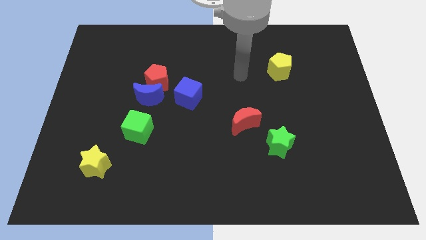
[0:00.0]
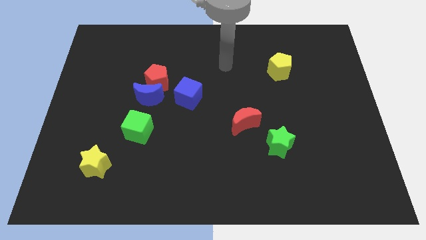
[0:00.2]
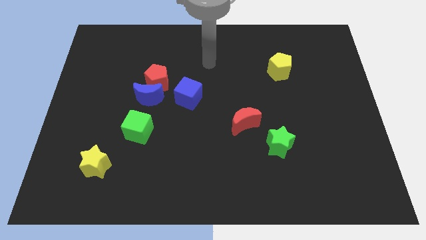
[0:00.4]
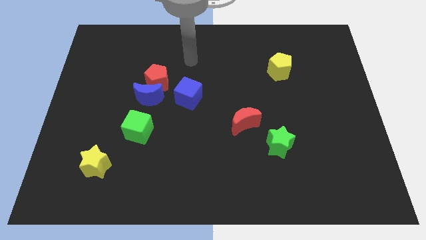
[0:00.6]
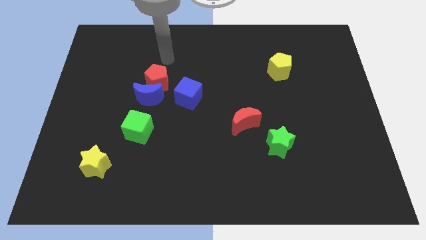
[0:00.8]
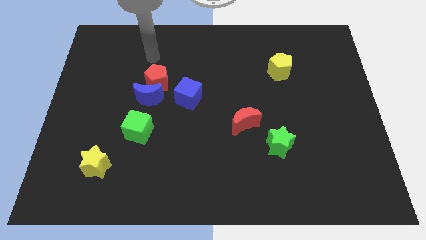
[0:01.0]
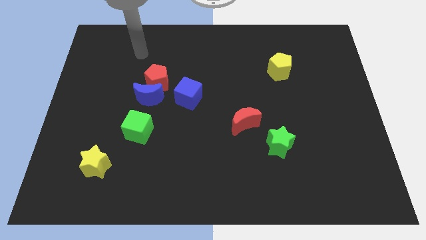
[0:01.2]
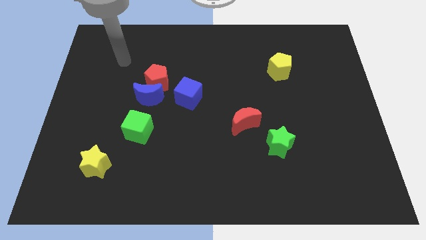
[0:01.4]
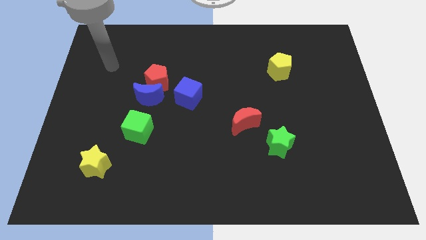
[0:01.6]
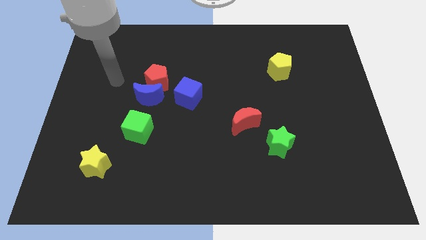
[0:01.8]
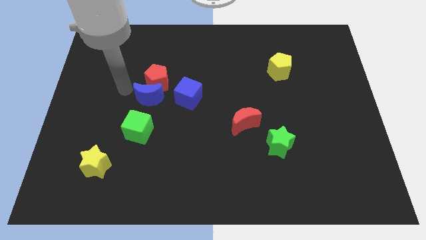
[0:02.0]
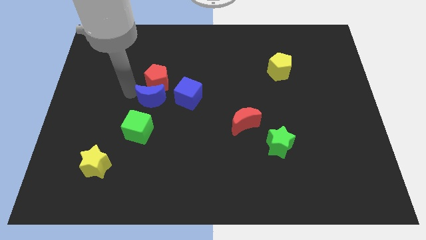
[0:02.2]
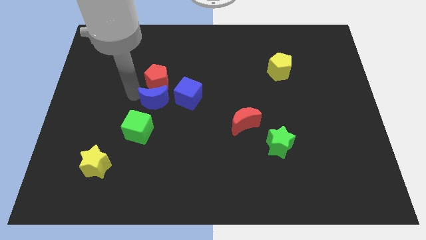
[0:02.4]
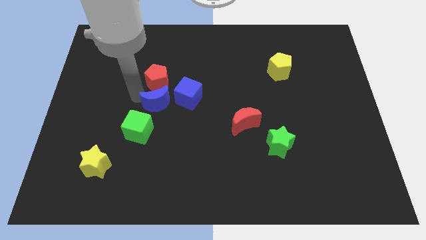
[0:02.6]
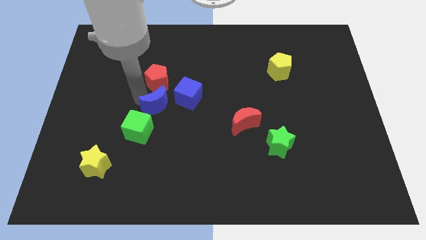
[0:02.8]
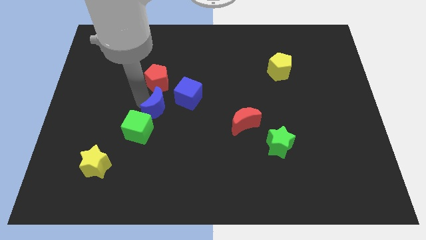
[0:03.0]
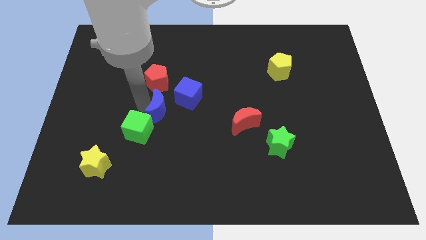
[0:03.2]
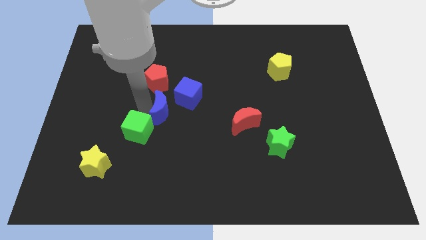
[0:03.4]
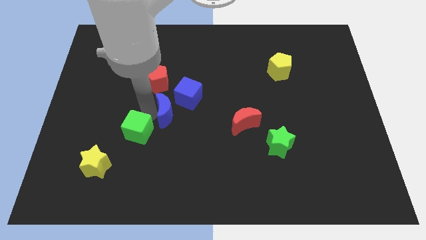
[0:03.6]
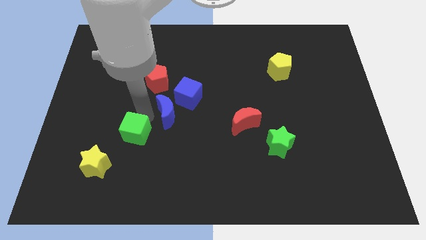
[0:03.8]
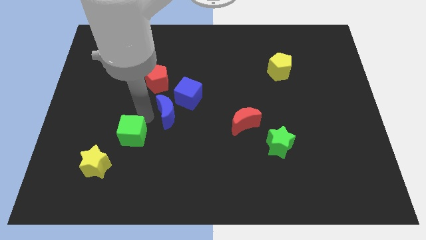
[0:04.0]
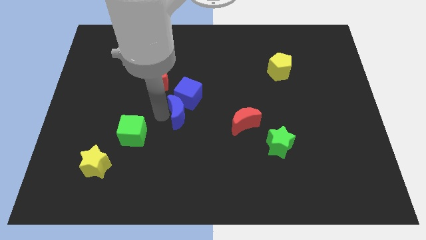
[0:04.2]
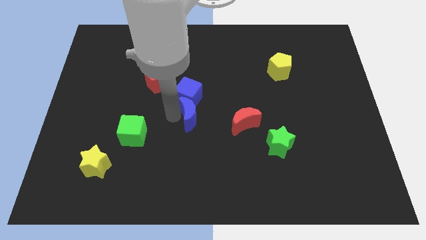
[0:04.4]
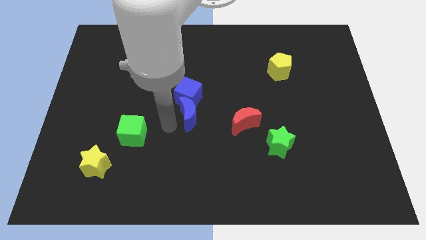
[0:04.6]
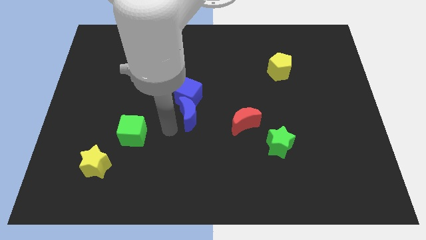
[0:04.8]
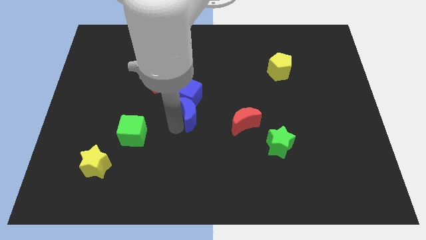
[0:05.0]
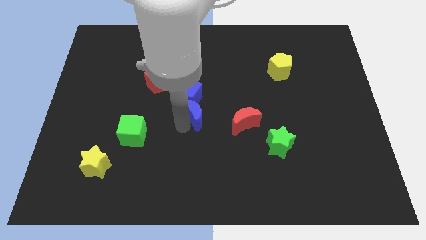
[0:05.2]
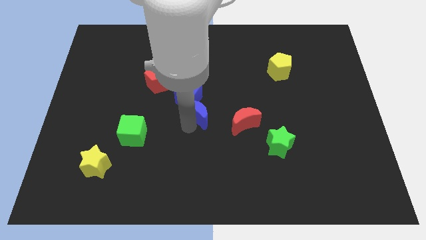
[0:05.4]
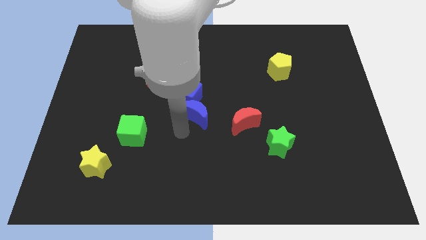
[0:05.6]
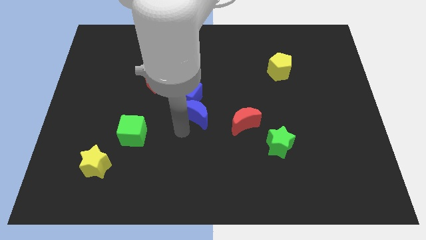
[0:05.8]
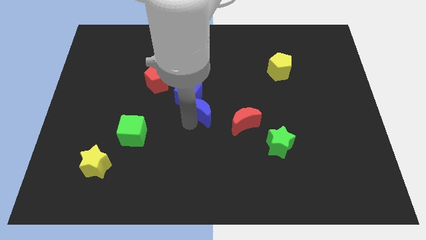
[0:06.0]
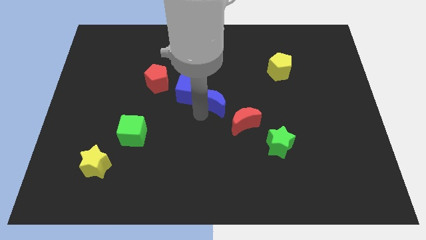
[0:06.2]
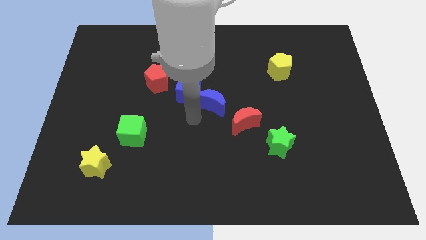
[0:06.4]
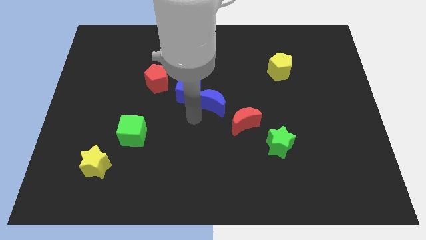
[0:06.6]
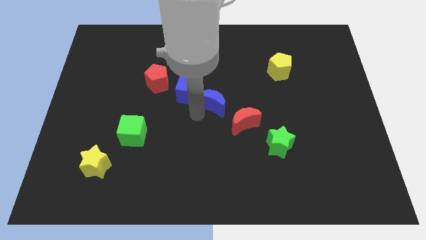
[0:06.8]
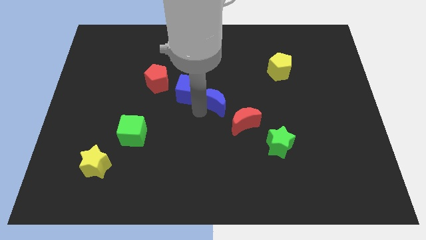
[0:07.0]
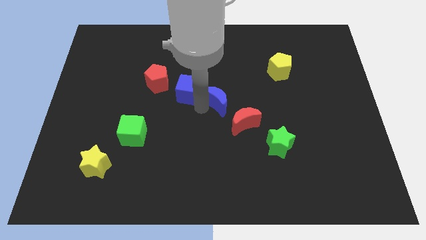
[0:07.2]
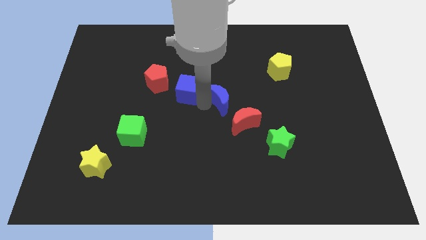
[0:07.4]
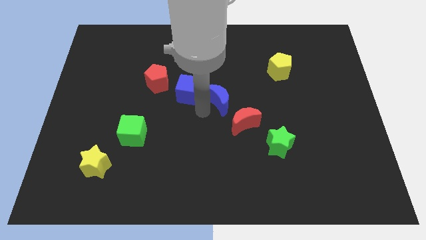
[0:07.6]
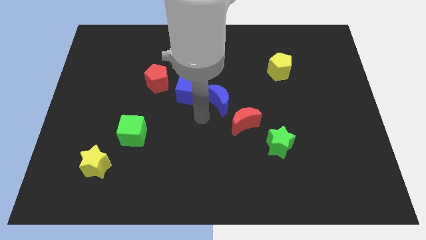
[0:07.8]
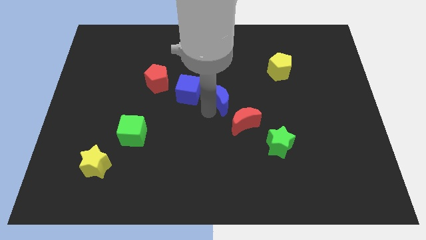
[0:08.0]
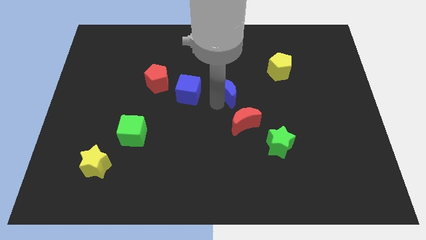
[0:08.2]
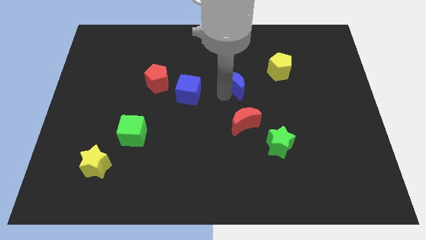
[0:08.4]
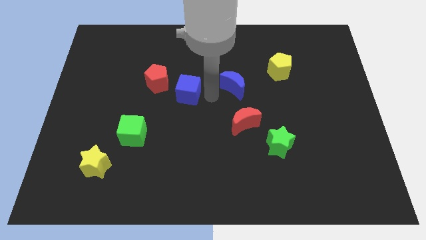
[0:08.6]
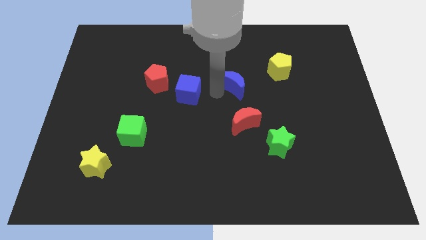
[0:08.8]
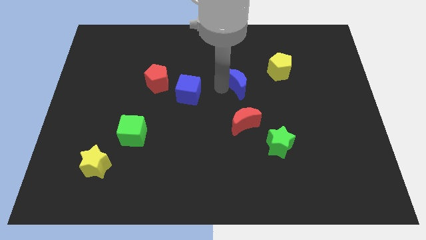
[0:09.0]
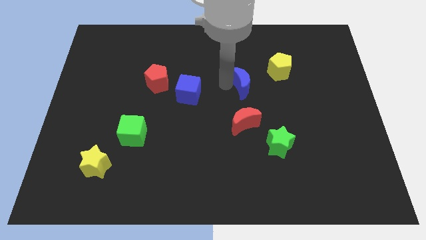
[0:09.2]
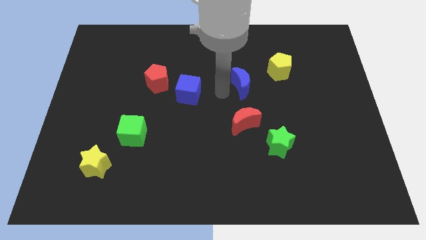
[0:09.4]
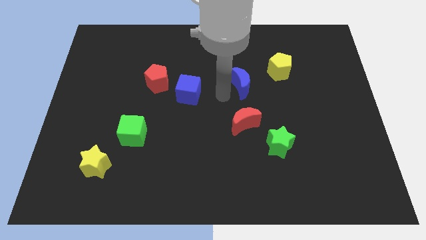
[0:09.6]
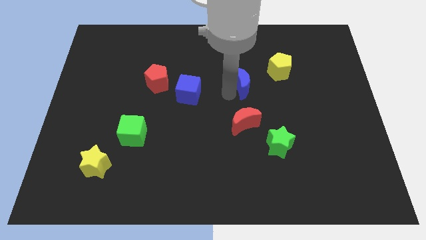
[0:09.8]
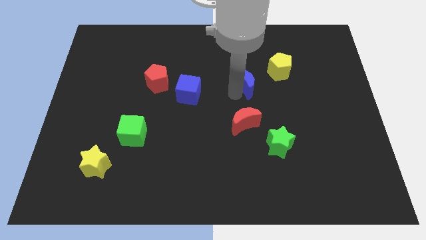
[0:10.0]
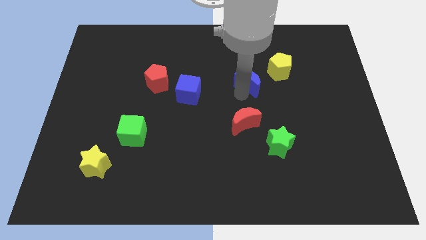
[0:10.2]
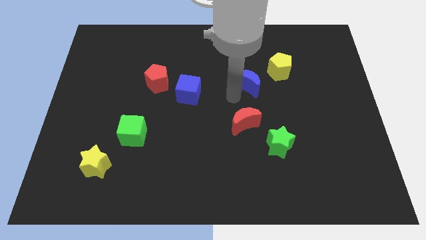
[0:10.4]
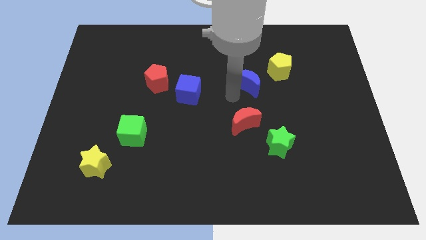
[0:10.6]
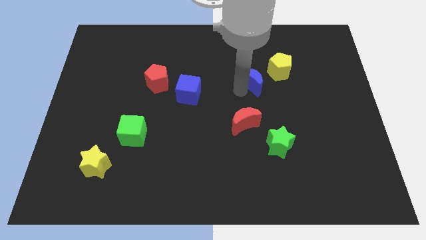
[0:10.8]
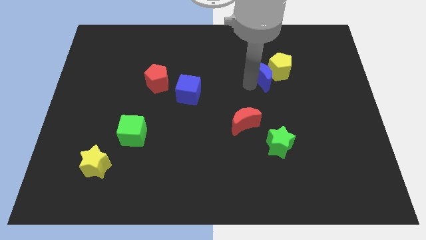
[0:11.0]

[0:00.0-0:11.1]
slide the blue moon towards the yellow pentagon

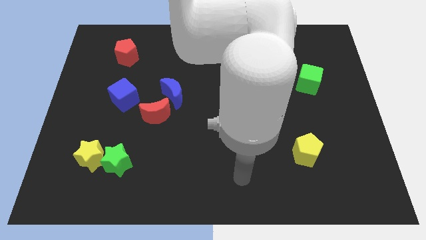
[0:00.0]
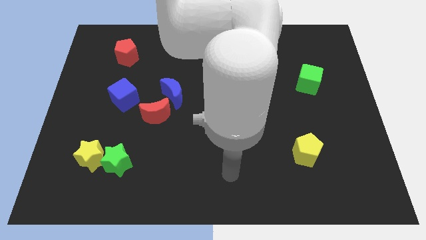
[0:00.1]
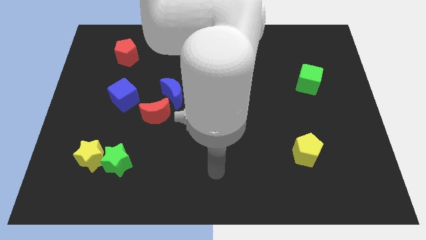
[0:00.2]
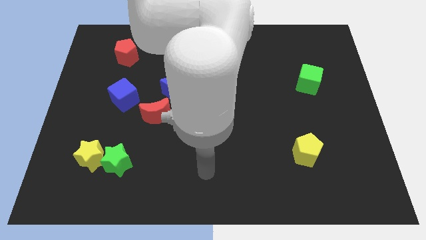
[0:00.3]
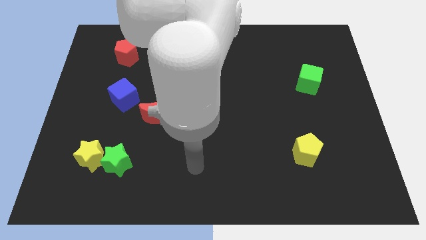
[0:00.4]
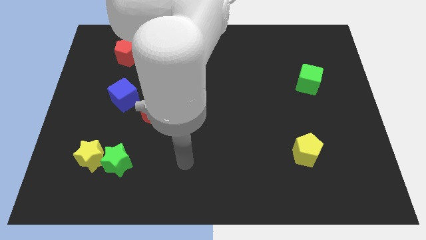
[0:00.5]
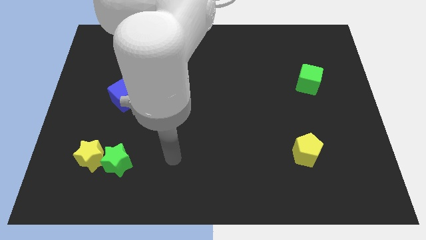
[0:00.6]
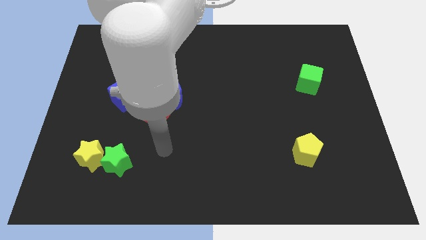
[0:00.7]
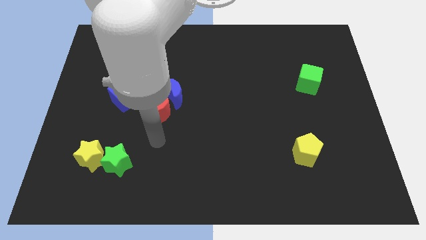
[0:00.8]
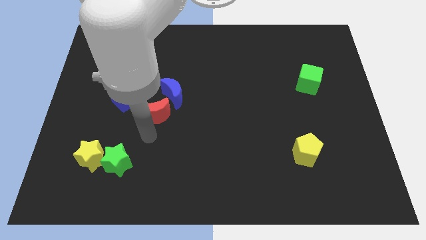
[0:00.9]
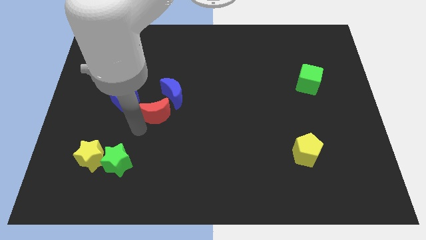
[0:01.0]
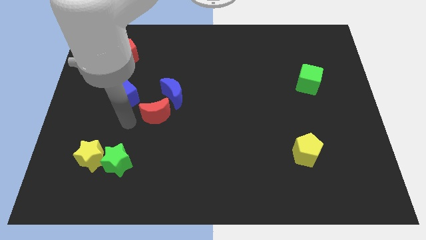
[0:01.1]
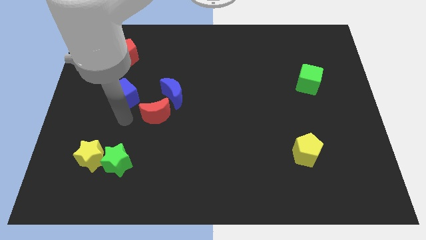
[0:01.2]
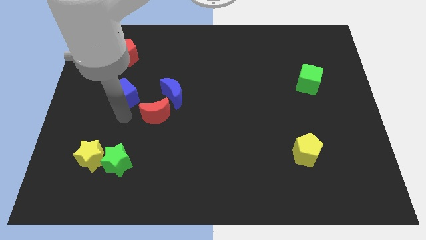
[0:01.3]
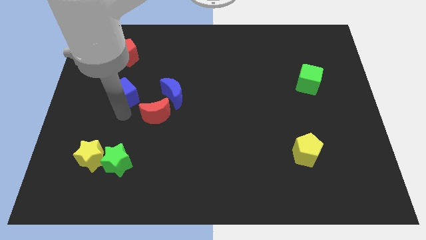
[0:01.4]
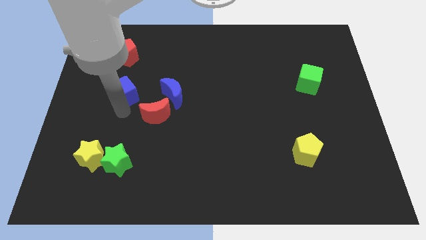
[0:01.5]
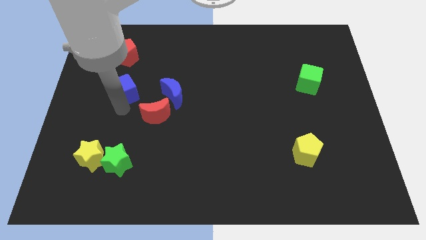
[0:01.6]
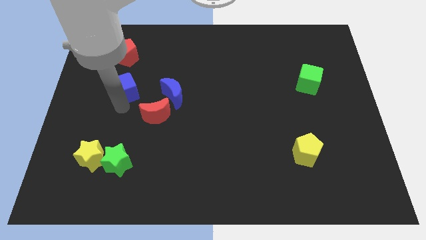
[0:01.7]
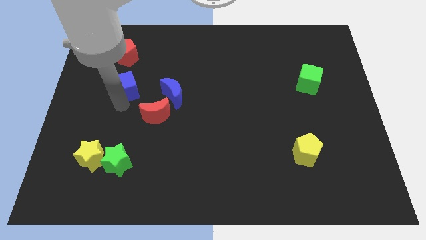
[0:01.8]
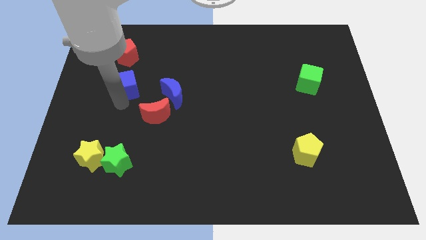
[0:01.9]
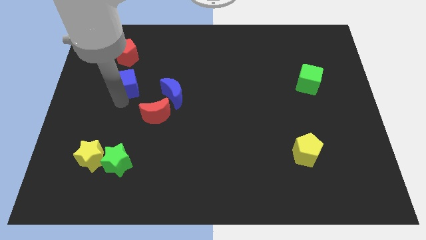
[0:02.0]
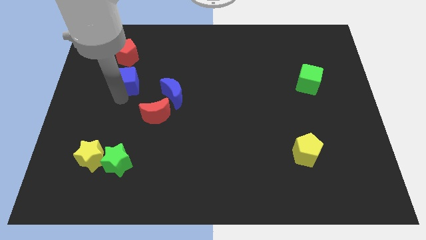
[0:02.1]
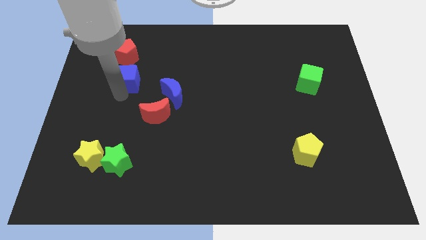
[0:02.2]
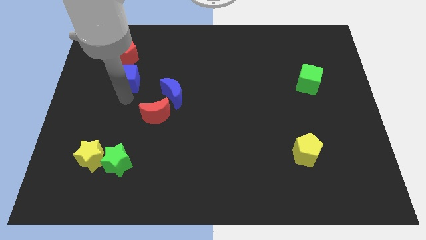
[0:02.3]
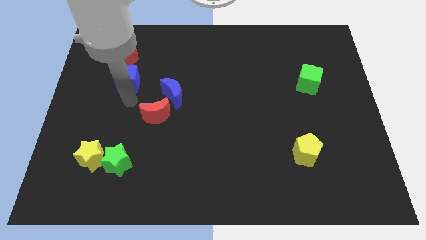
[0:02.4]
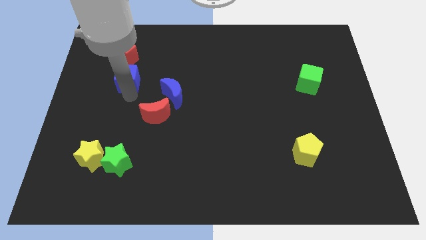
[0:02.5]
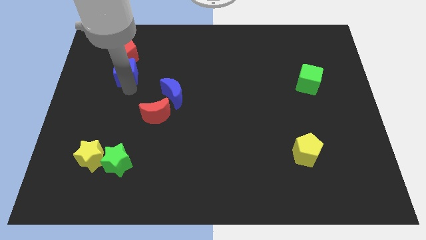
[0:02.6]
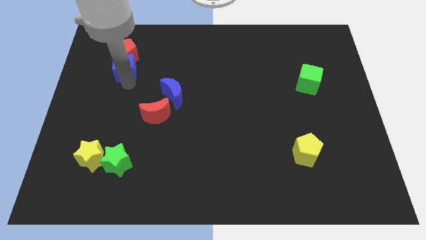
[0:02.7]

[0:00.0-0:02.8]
slide the blue cube close to the red pentagon
